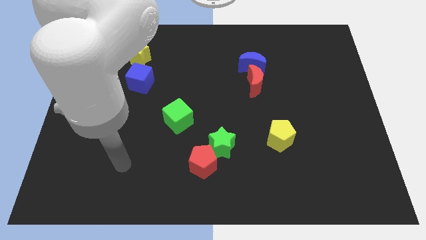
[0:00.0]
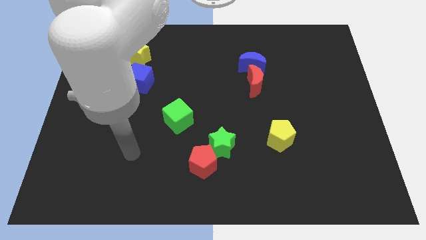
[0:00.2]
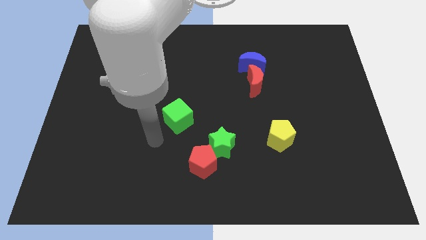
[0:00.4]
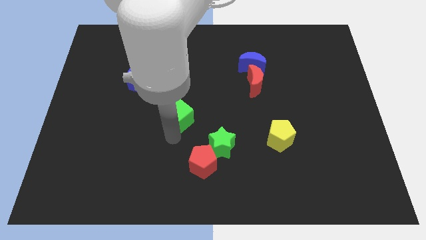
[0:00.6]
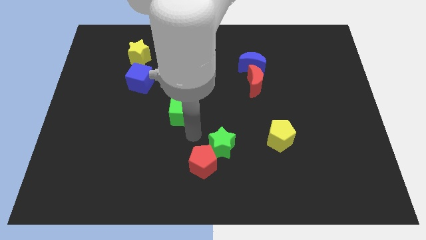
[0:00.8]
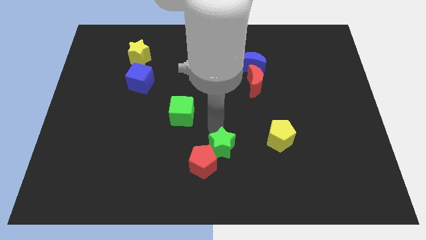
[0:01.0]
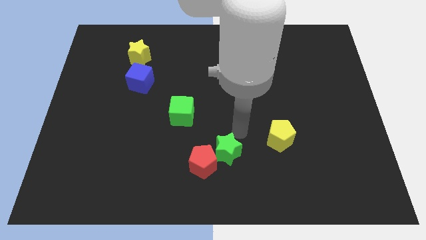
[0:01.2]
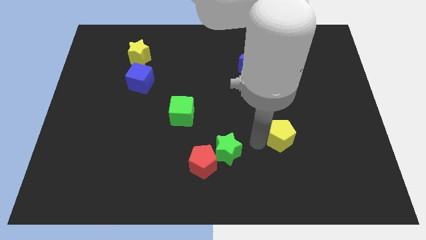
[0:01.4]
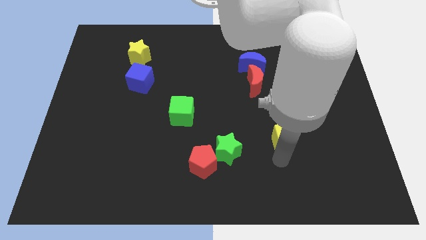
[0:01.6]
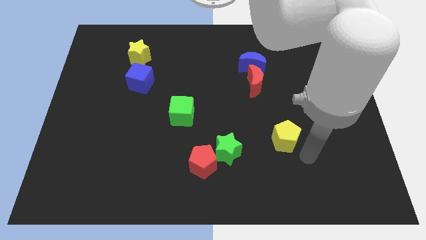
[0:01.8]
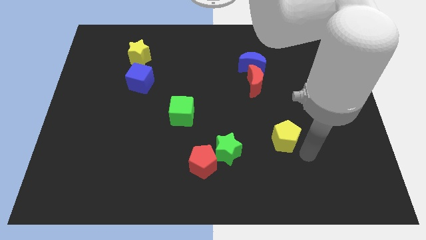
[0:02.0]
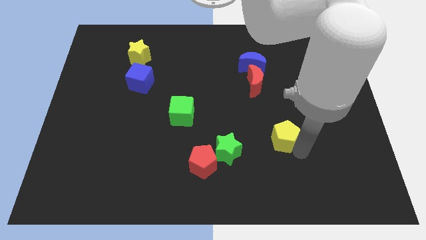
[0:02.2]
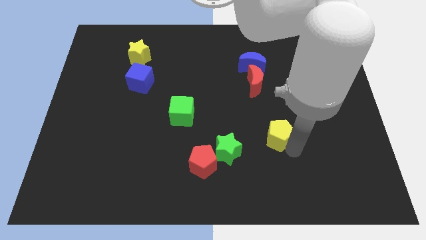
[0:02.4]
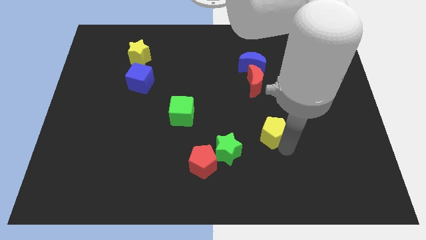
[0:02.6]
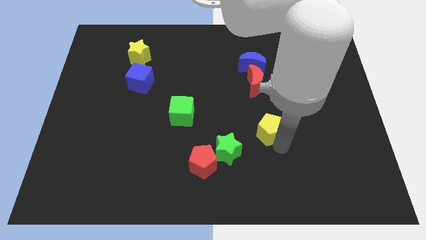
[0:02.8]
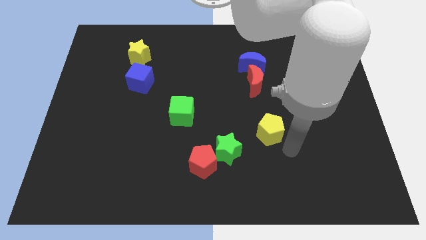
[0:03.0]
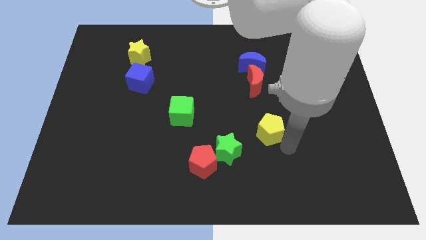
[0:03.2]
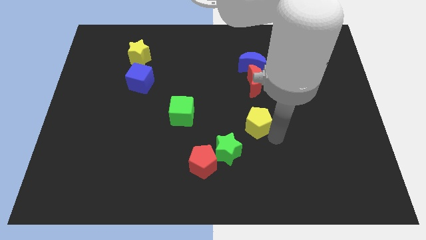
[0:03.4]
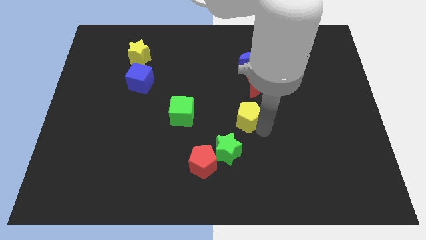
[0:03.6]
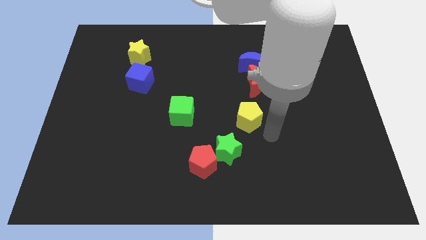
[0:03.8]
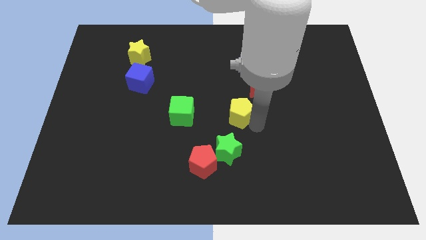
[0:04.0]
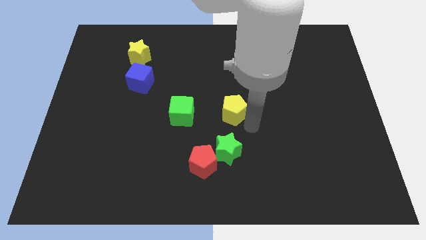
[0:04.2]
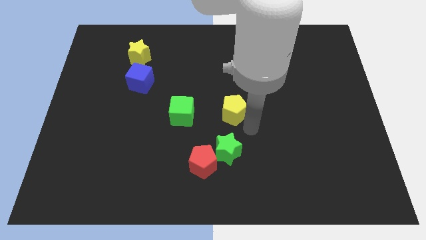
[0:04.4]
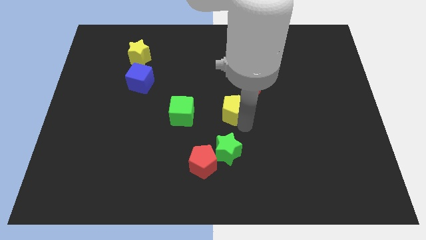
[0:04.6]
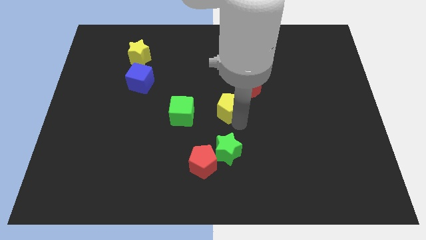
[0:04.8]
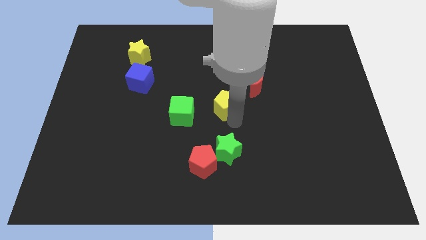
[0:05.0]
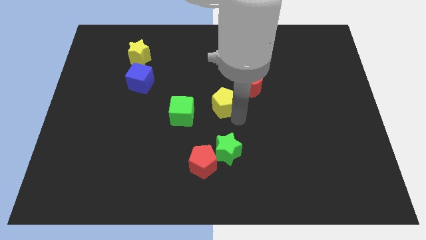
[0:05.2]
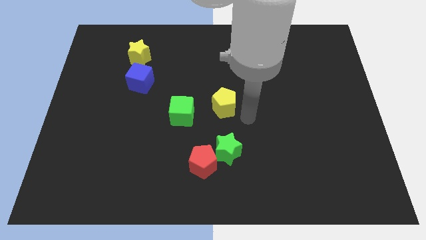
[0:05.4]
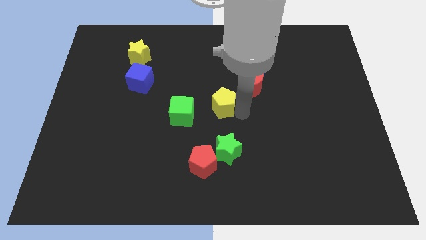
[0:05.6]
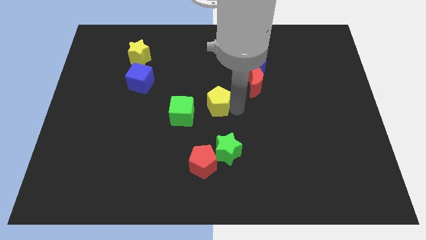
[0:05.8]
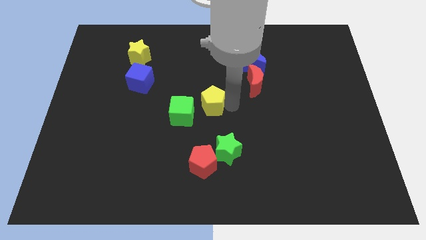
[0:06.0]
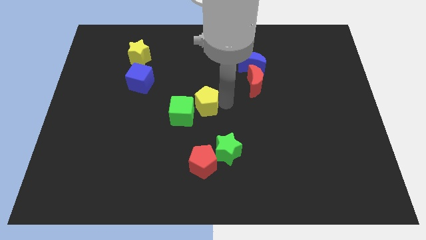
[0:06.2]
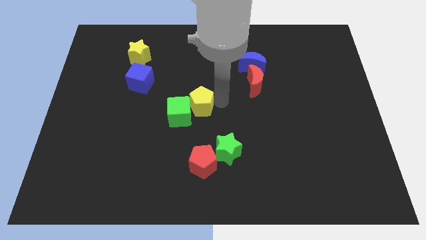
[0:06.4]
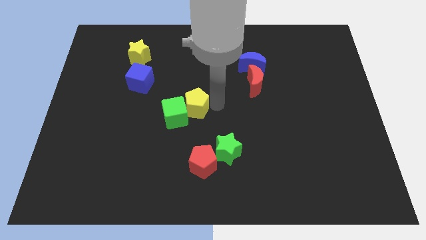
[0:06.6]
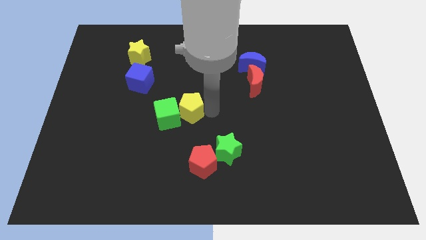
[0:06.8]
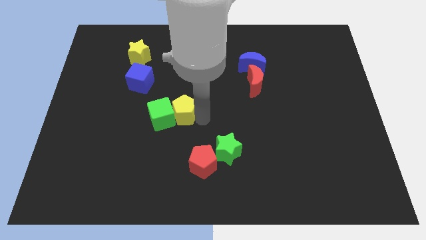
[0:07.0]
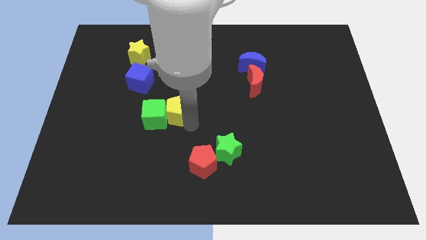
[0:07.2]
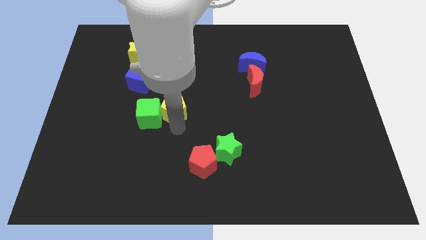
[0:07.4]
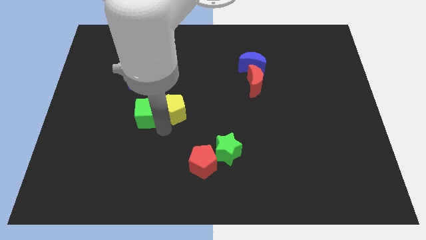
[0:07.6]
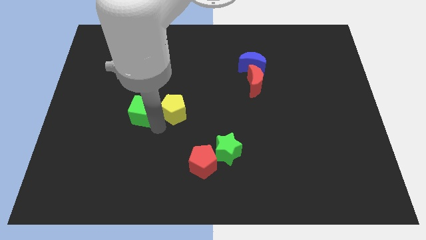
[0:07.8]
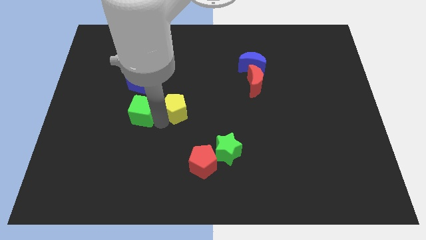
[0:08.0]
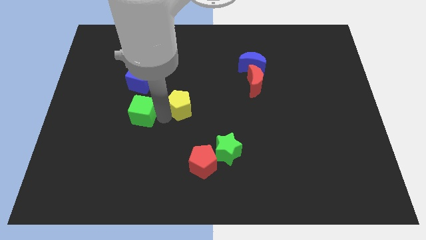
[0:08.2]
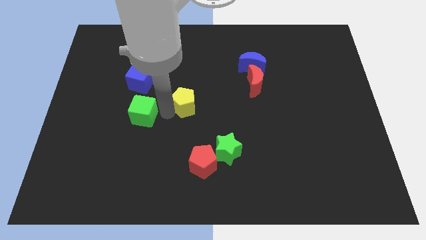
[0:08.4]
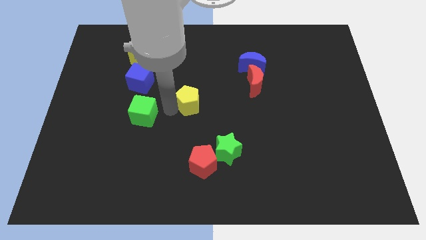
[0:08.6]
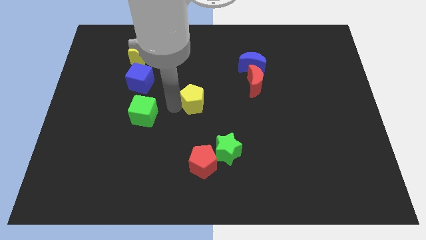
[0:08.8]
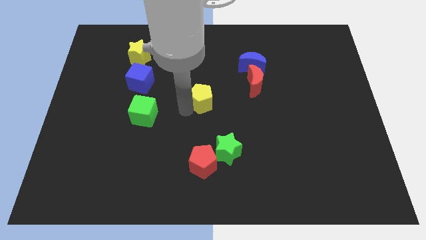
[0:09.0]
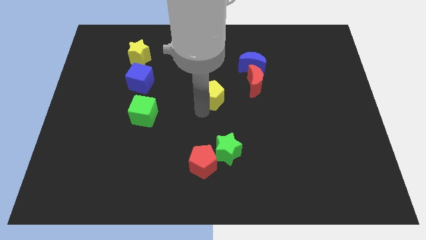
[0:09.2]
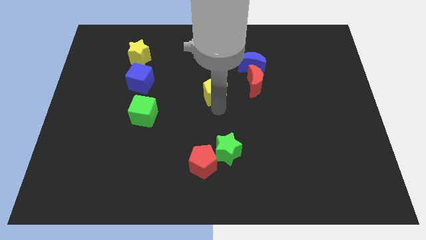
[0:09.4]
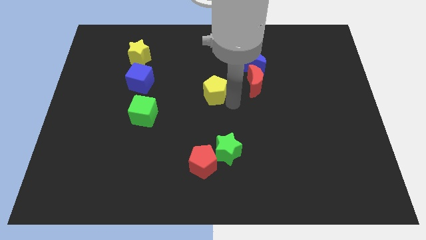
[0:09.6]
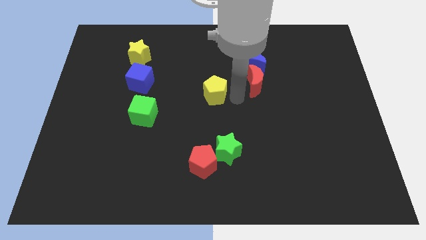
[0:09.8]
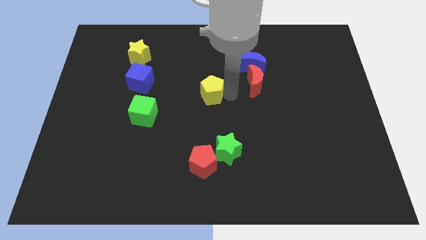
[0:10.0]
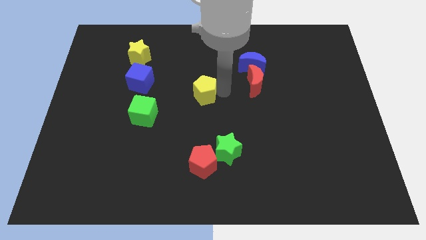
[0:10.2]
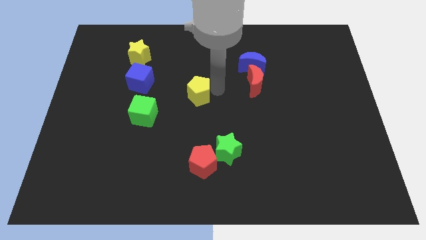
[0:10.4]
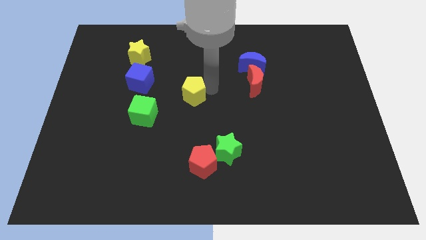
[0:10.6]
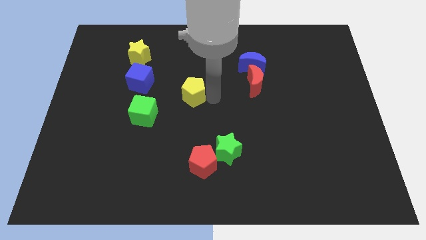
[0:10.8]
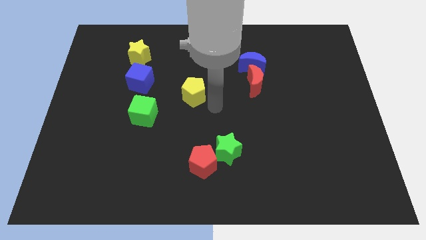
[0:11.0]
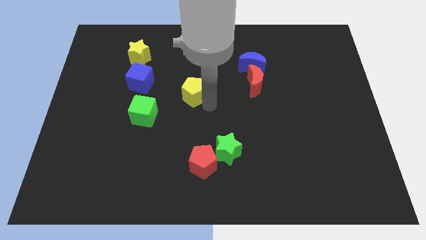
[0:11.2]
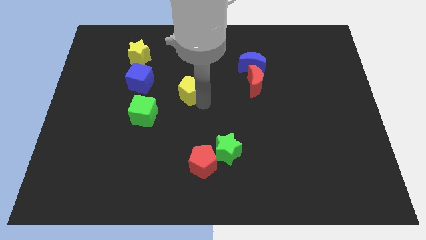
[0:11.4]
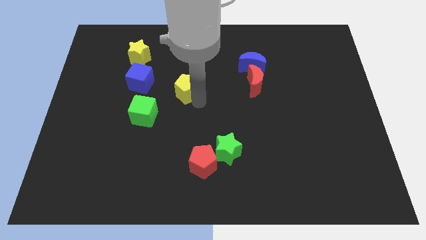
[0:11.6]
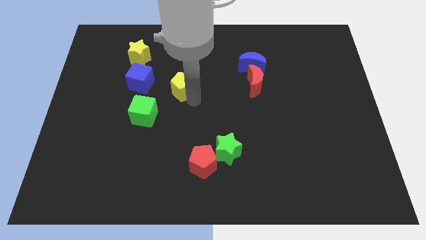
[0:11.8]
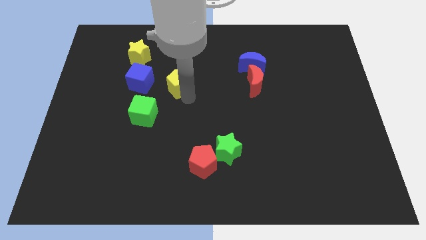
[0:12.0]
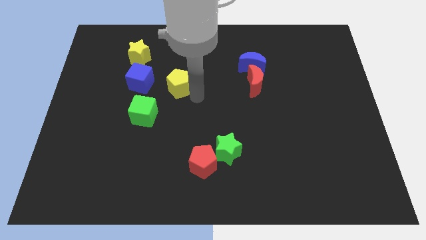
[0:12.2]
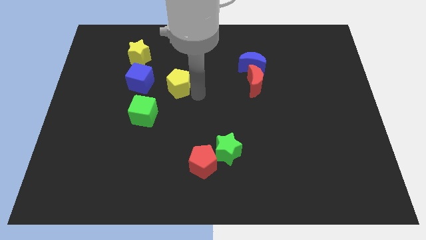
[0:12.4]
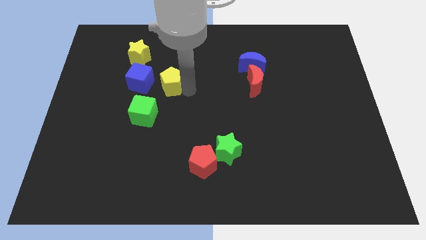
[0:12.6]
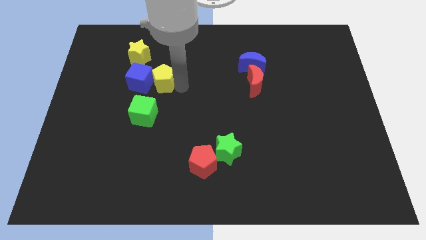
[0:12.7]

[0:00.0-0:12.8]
slide the yellow pentagon next to the blue cube

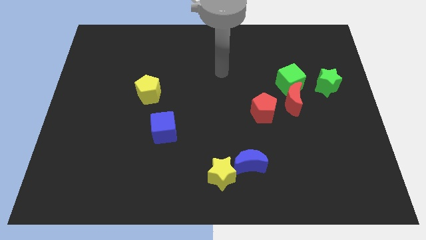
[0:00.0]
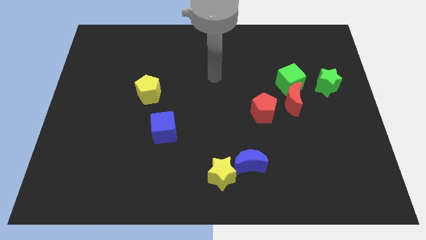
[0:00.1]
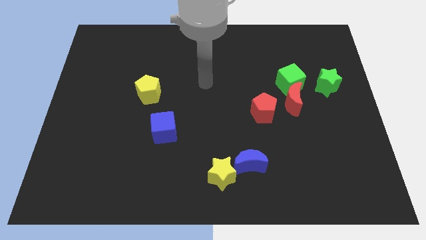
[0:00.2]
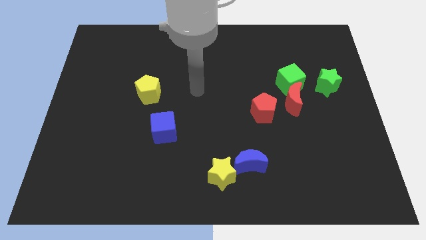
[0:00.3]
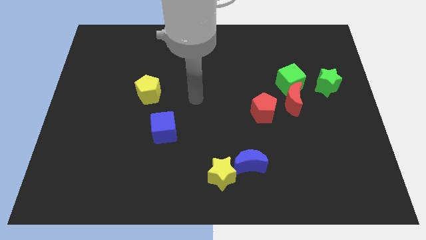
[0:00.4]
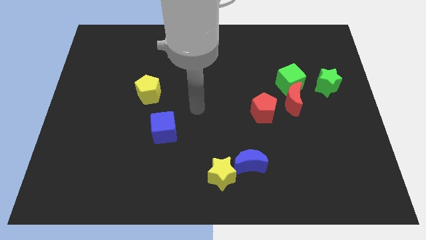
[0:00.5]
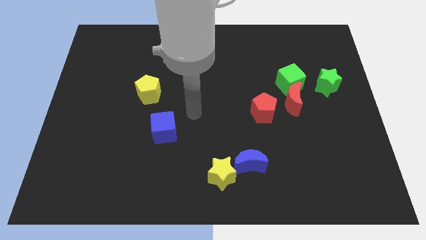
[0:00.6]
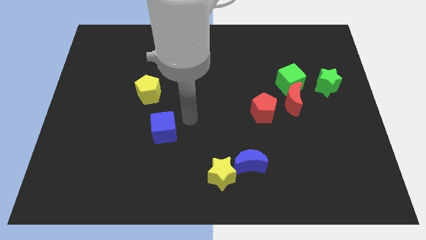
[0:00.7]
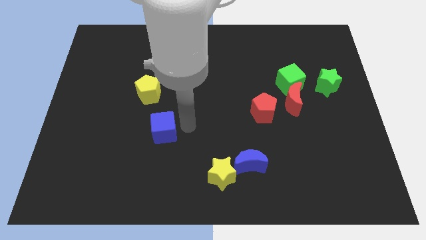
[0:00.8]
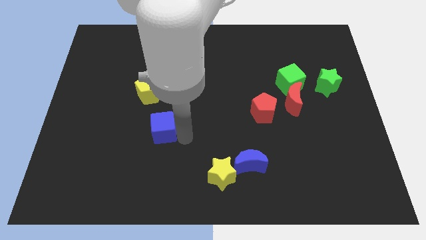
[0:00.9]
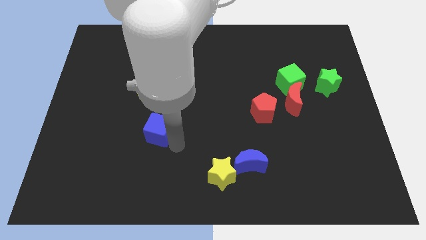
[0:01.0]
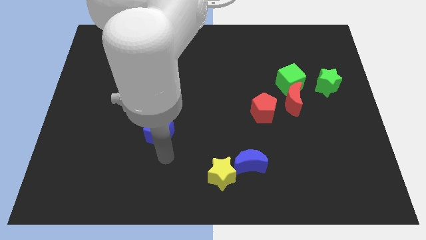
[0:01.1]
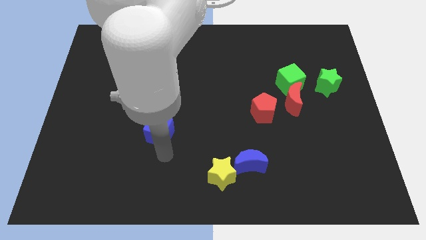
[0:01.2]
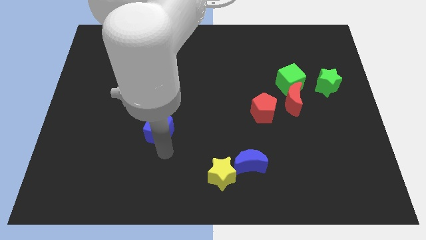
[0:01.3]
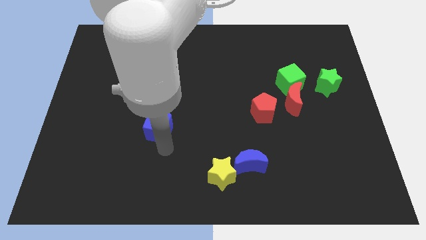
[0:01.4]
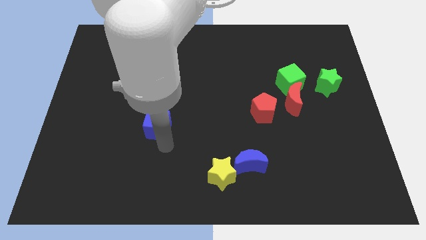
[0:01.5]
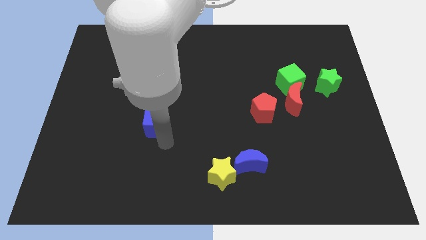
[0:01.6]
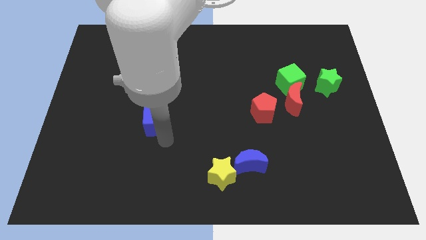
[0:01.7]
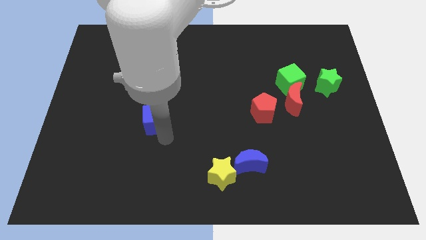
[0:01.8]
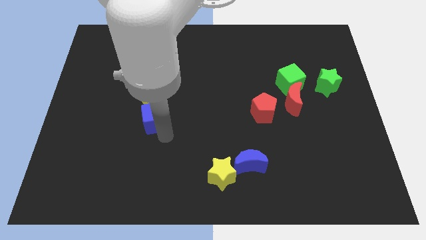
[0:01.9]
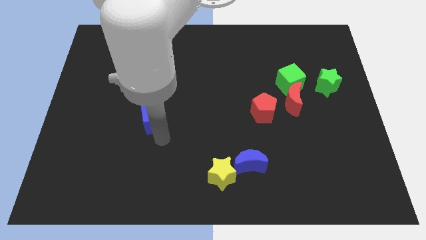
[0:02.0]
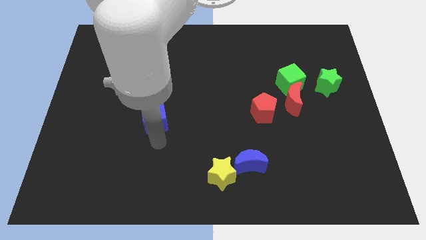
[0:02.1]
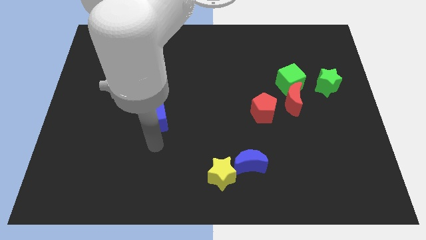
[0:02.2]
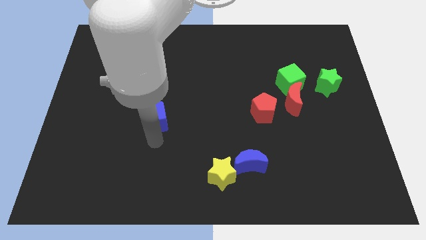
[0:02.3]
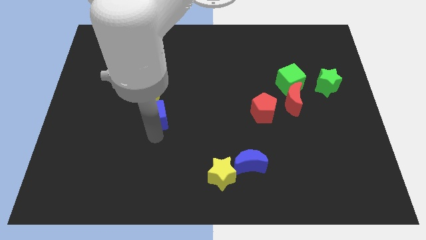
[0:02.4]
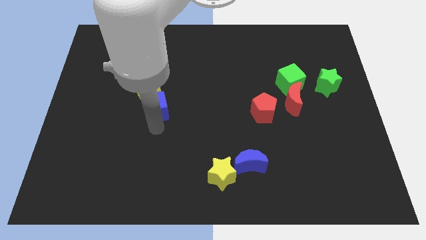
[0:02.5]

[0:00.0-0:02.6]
slide the blue cube next to the yellow pentagon
